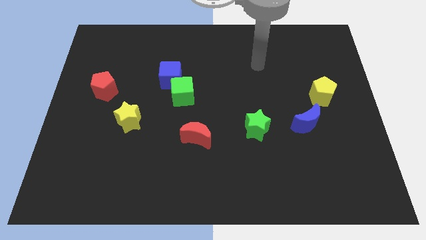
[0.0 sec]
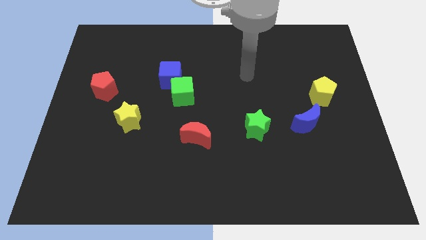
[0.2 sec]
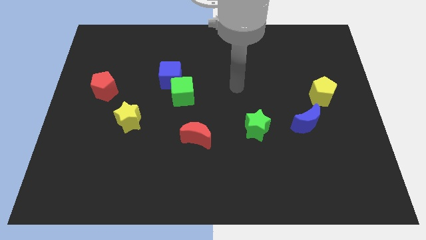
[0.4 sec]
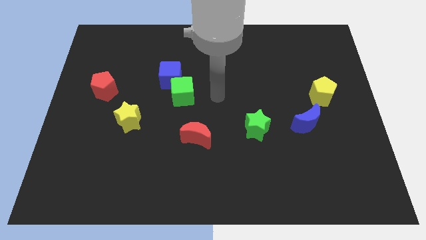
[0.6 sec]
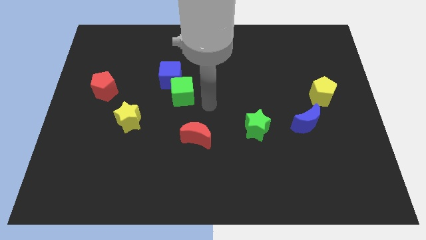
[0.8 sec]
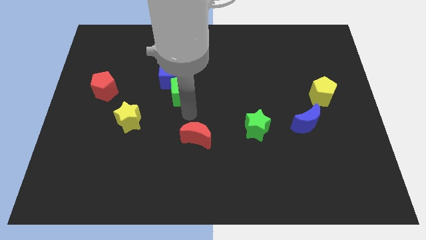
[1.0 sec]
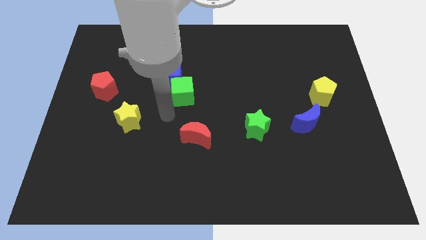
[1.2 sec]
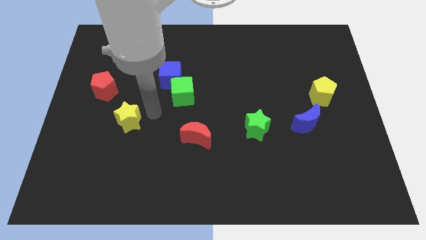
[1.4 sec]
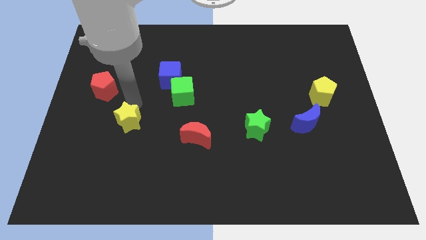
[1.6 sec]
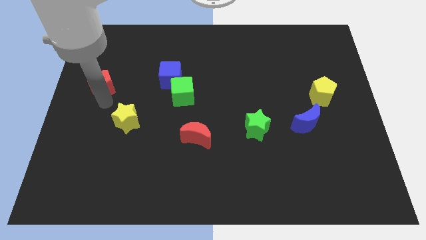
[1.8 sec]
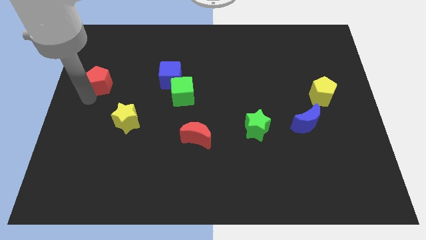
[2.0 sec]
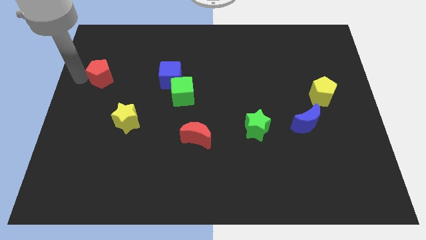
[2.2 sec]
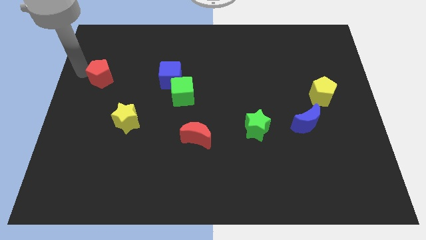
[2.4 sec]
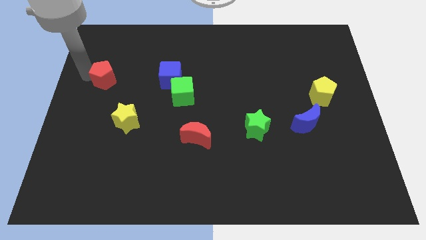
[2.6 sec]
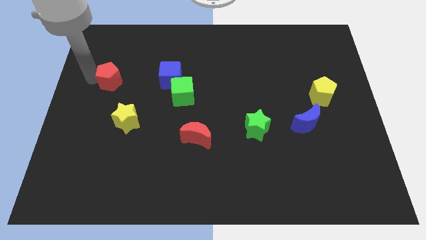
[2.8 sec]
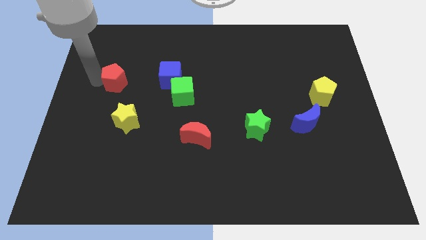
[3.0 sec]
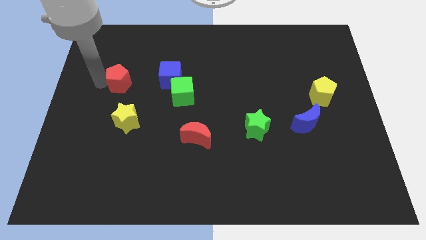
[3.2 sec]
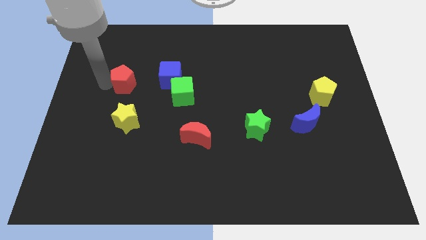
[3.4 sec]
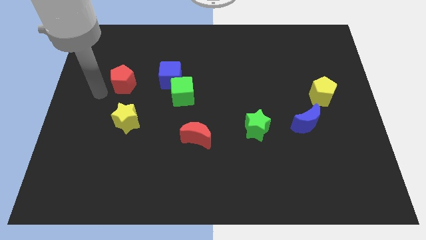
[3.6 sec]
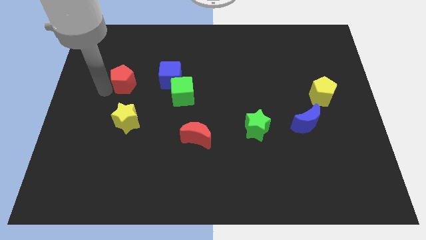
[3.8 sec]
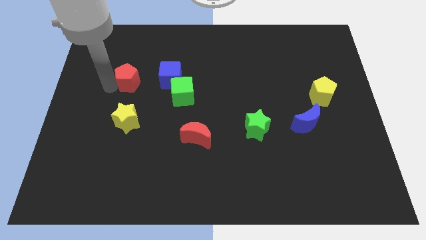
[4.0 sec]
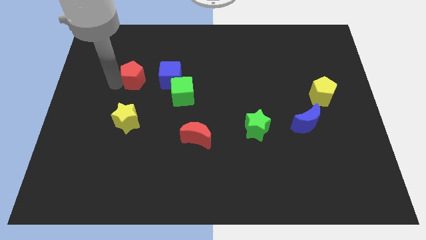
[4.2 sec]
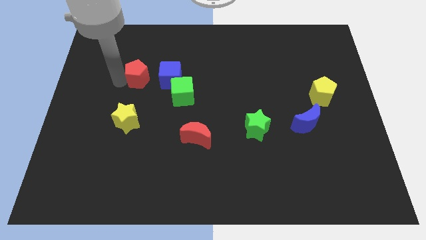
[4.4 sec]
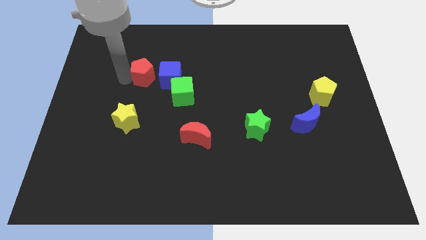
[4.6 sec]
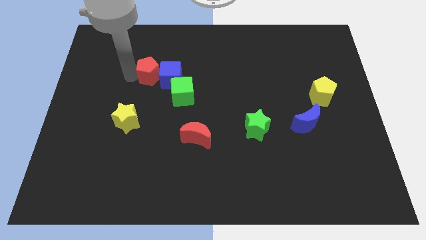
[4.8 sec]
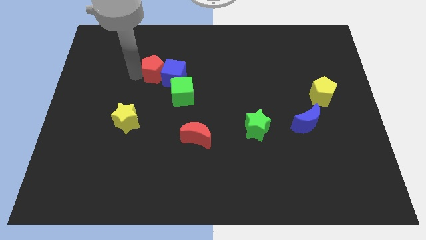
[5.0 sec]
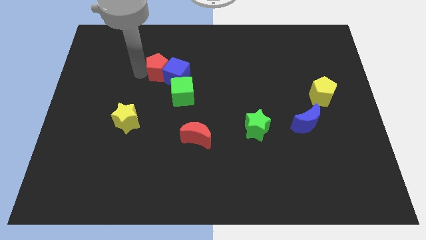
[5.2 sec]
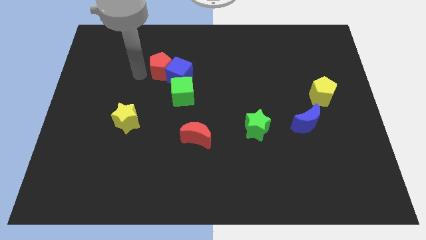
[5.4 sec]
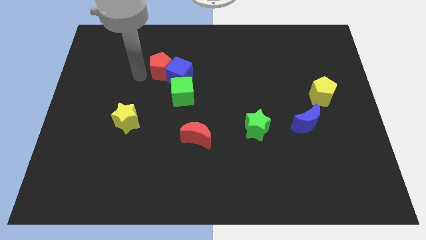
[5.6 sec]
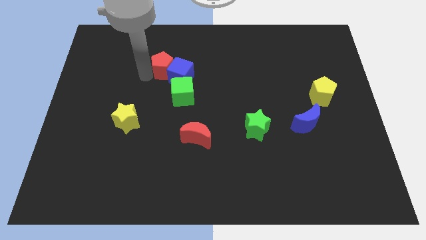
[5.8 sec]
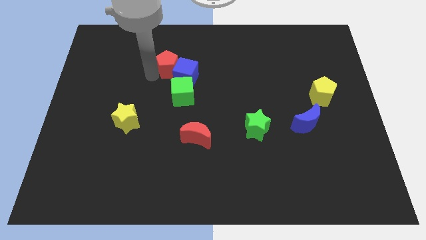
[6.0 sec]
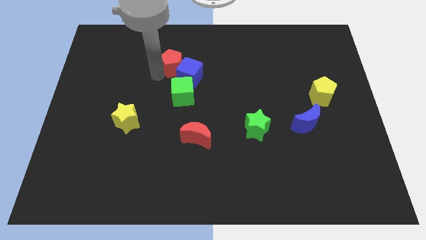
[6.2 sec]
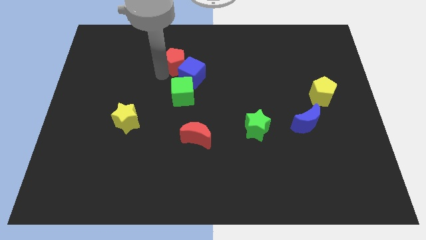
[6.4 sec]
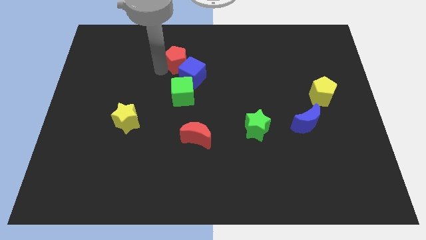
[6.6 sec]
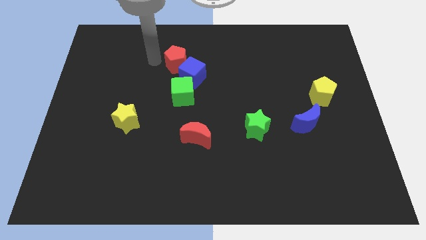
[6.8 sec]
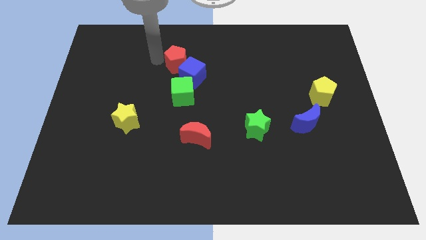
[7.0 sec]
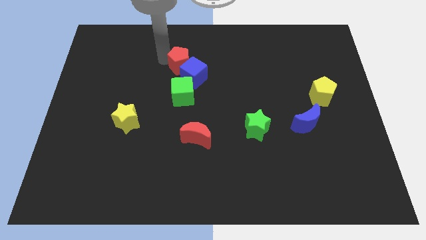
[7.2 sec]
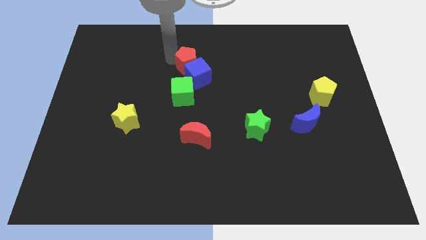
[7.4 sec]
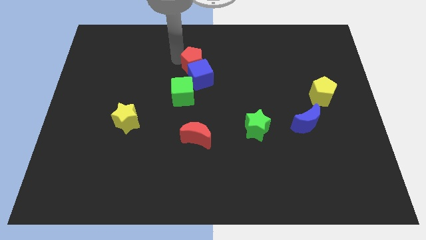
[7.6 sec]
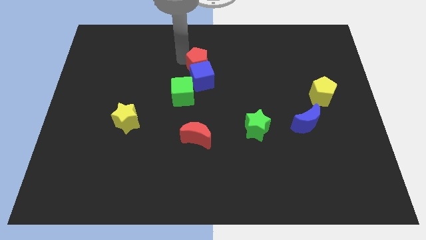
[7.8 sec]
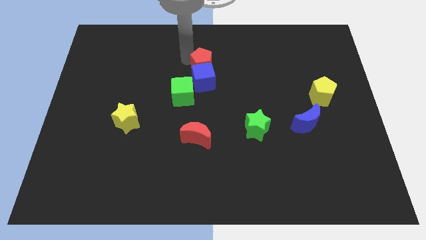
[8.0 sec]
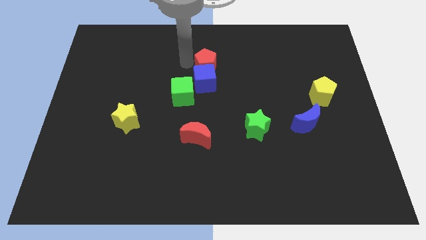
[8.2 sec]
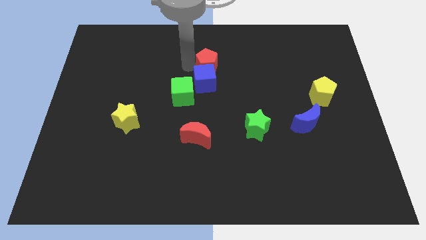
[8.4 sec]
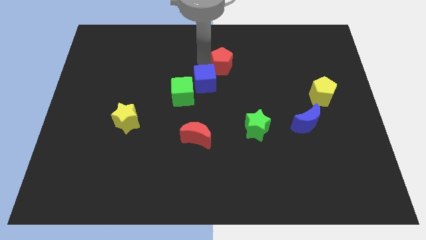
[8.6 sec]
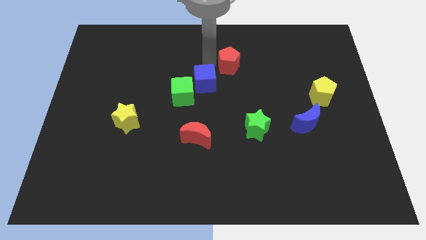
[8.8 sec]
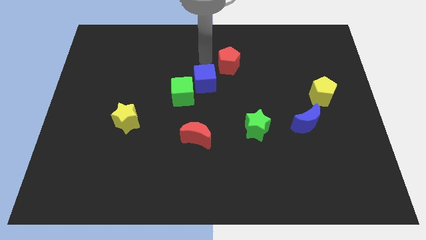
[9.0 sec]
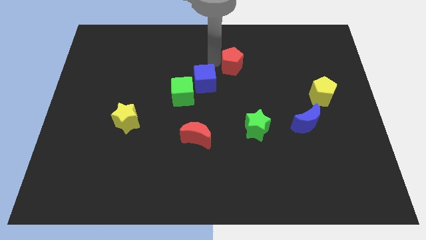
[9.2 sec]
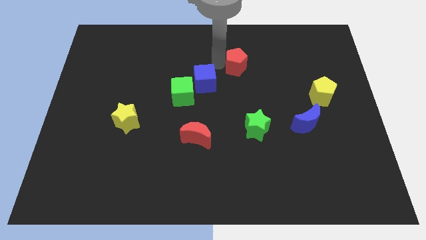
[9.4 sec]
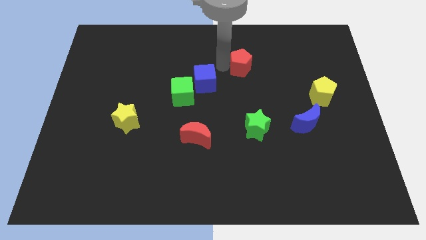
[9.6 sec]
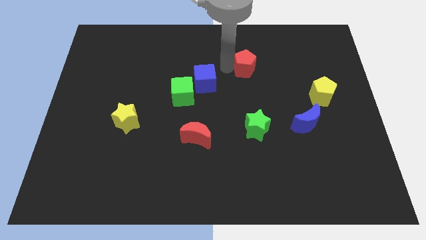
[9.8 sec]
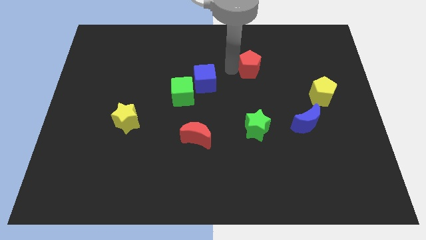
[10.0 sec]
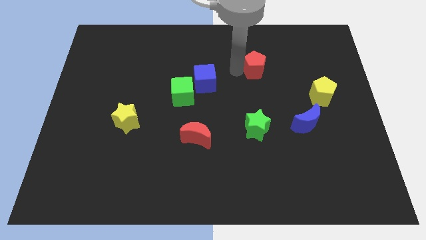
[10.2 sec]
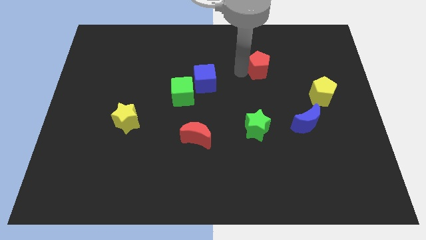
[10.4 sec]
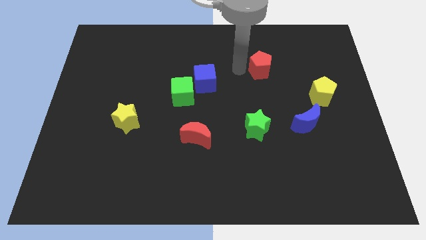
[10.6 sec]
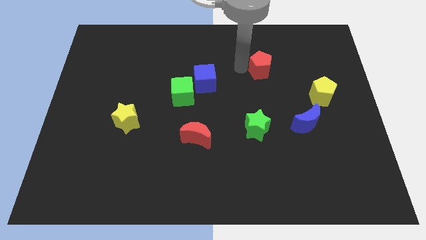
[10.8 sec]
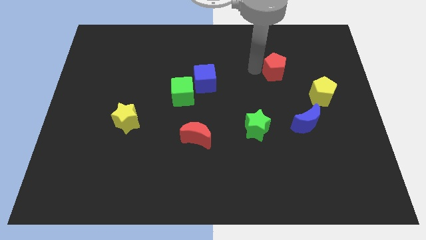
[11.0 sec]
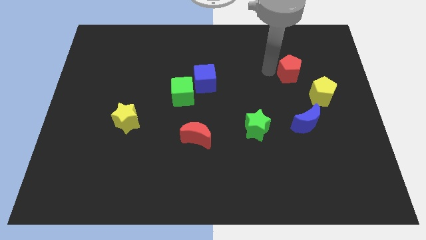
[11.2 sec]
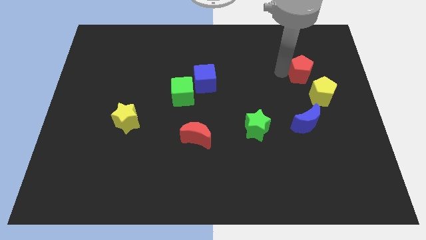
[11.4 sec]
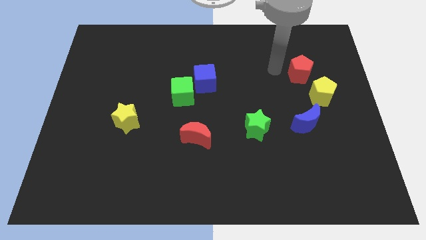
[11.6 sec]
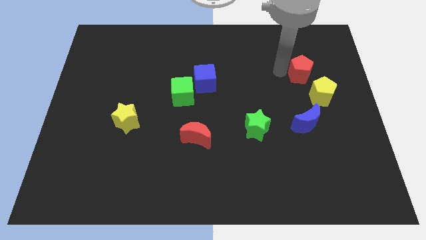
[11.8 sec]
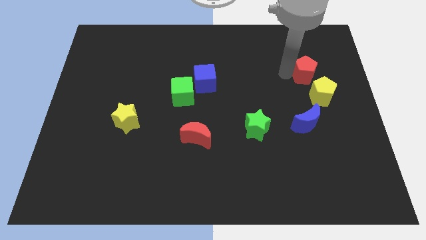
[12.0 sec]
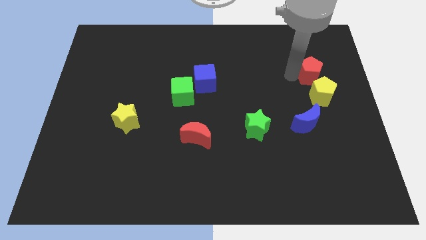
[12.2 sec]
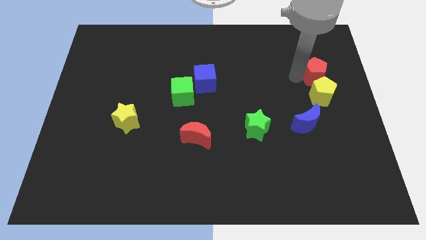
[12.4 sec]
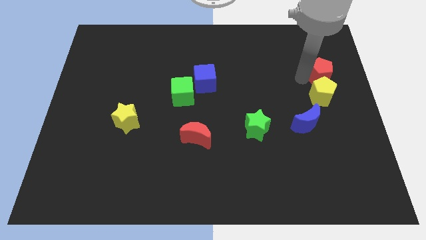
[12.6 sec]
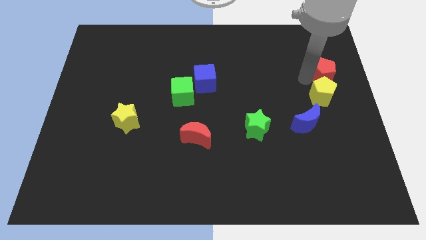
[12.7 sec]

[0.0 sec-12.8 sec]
slide the red pentagon to the right side of the board
